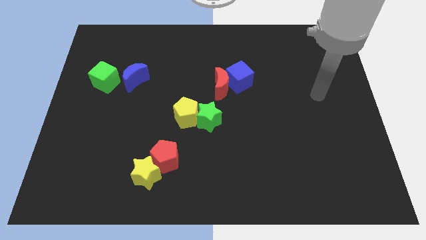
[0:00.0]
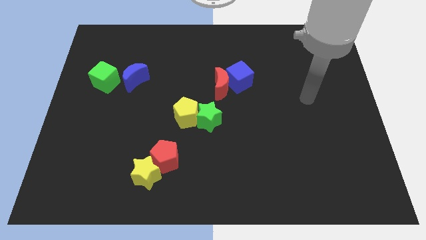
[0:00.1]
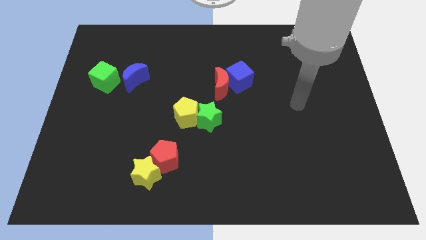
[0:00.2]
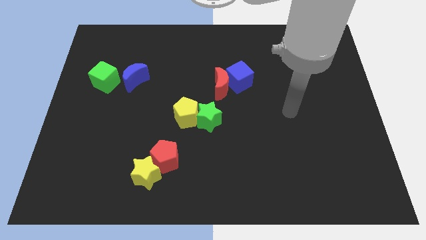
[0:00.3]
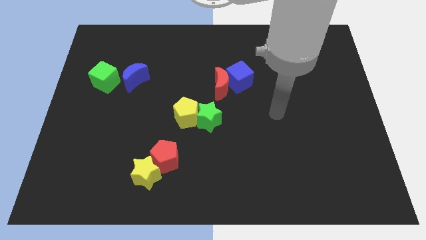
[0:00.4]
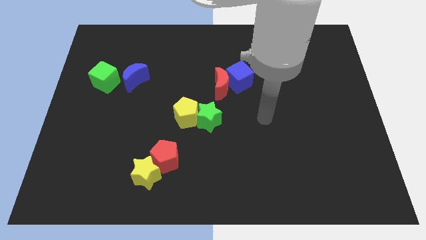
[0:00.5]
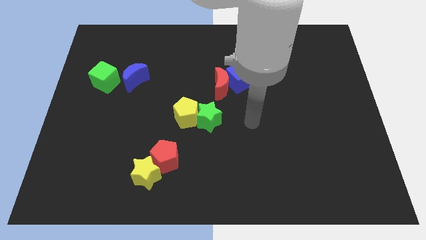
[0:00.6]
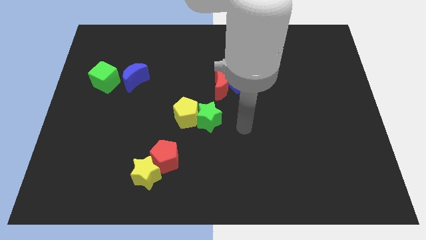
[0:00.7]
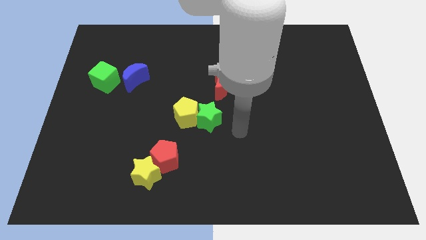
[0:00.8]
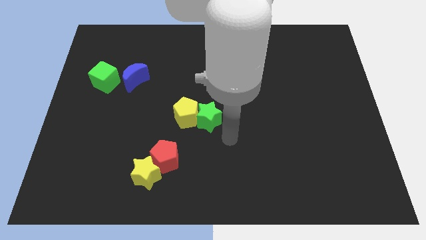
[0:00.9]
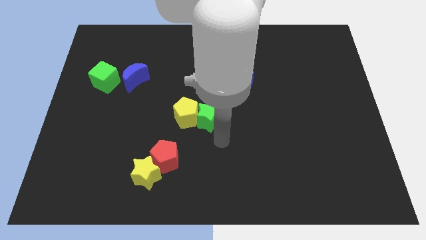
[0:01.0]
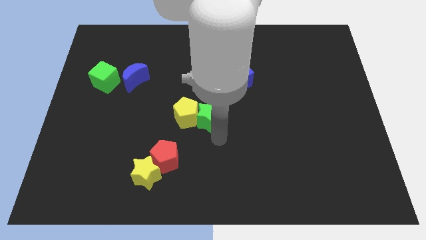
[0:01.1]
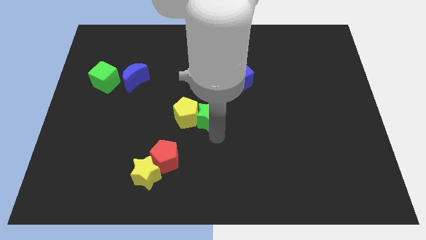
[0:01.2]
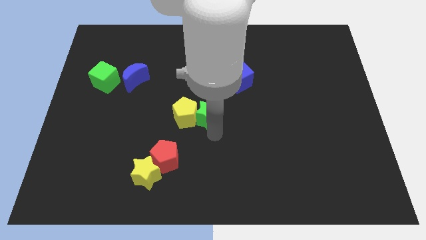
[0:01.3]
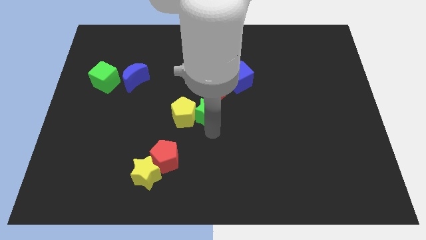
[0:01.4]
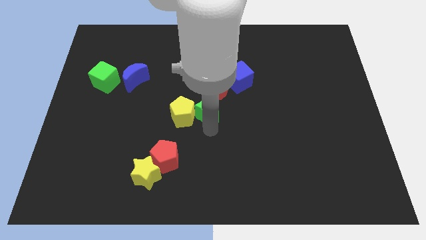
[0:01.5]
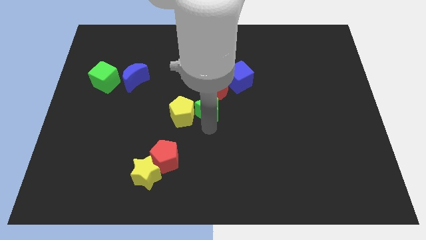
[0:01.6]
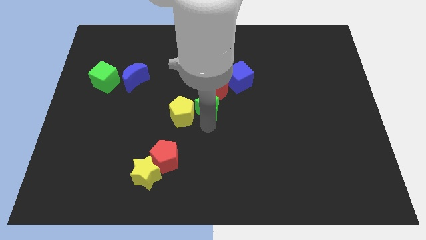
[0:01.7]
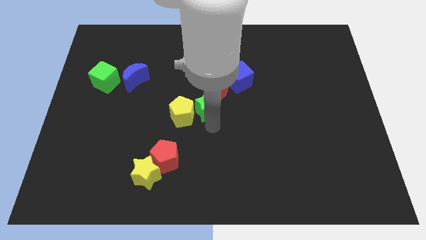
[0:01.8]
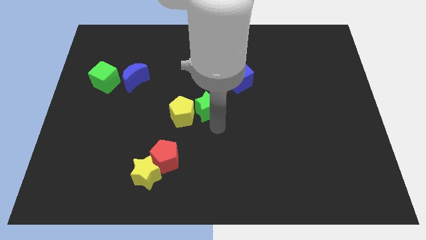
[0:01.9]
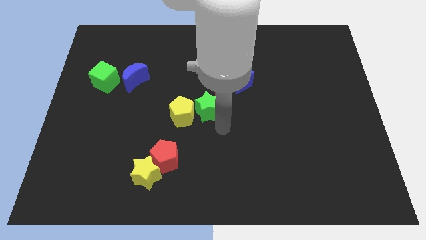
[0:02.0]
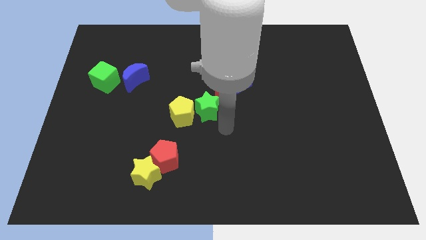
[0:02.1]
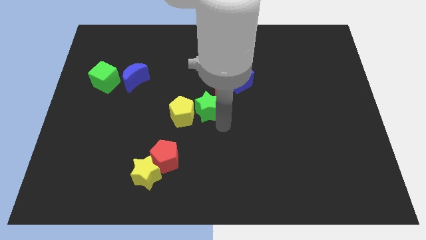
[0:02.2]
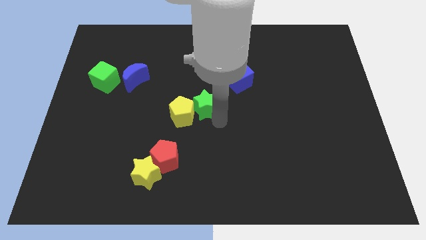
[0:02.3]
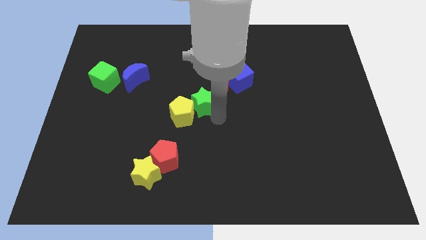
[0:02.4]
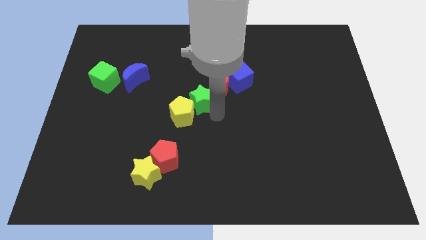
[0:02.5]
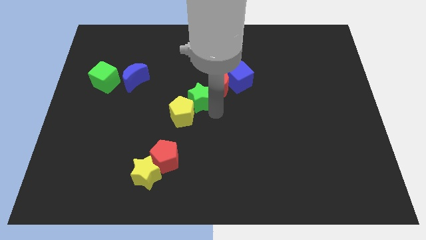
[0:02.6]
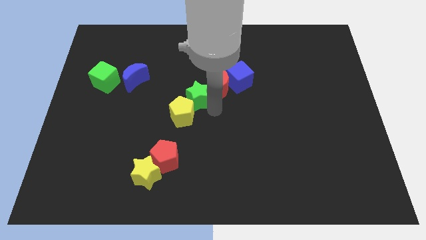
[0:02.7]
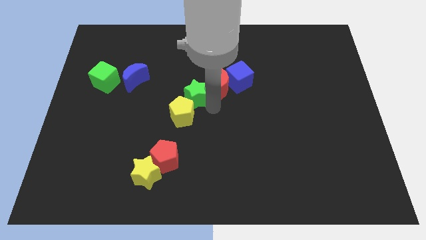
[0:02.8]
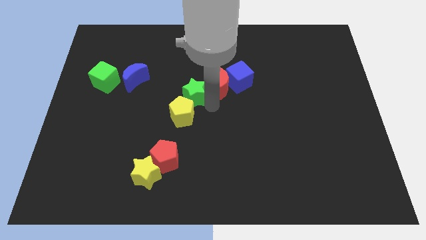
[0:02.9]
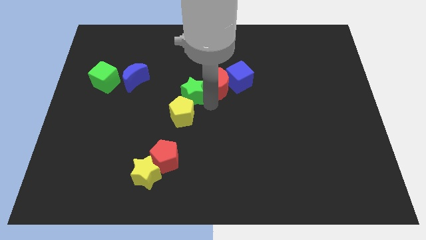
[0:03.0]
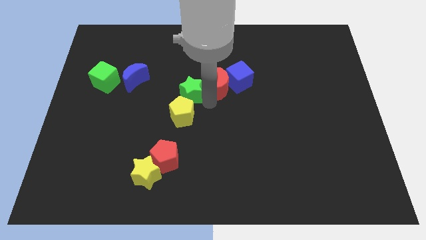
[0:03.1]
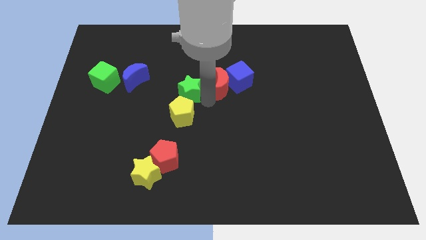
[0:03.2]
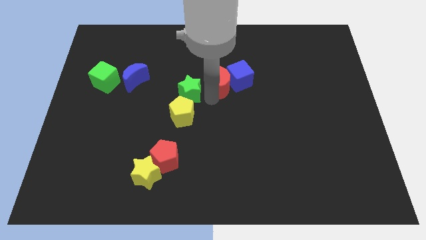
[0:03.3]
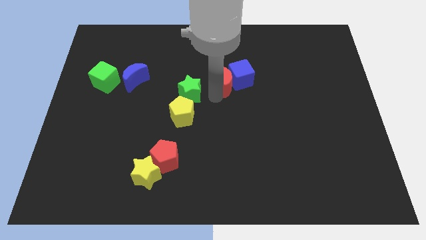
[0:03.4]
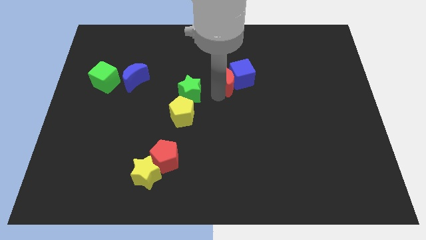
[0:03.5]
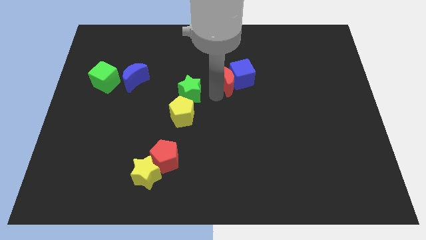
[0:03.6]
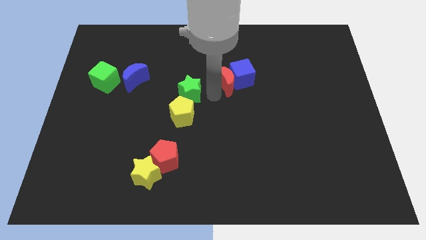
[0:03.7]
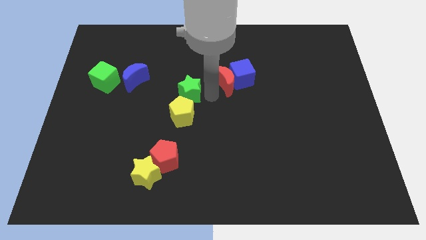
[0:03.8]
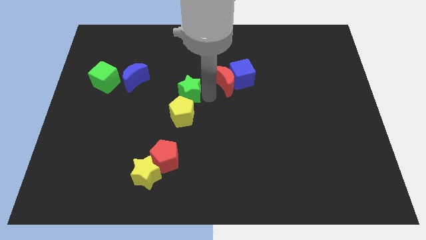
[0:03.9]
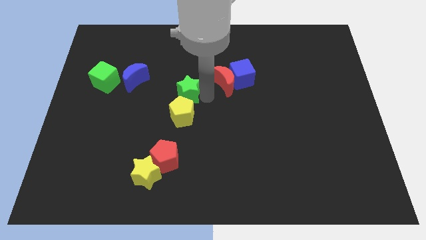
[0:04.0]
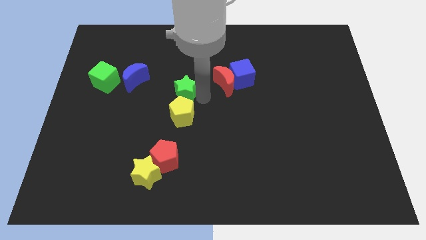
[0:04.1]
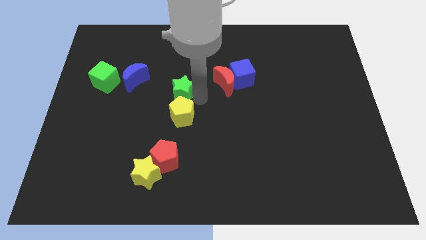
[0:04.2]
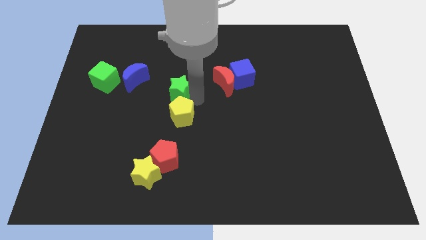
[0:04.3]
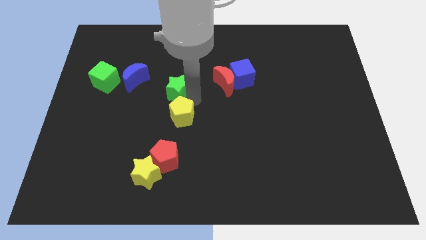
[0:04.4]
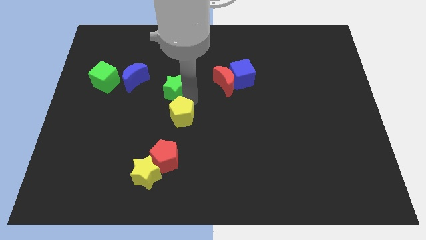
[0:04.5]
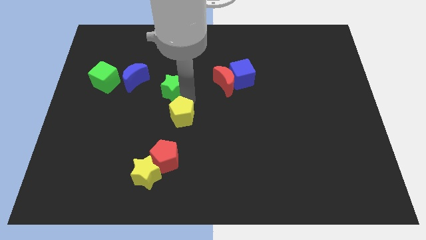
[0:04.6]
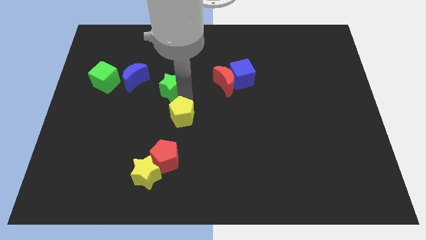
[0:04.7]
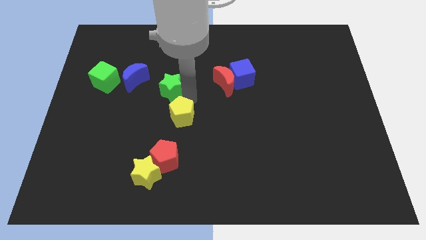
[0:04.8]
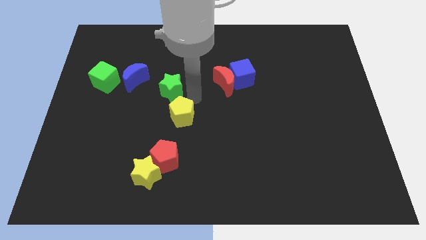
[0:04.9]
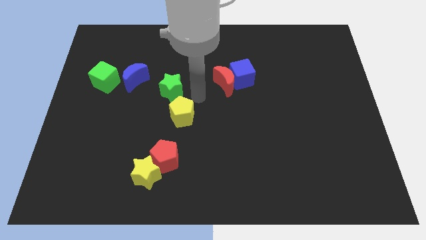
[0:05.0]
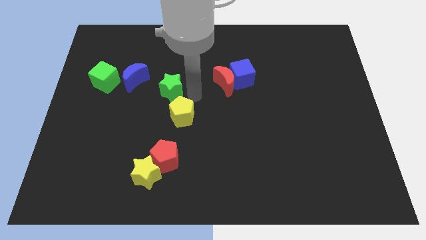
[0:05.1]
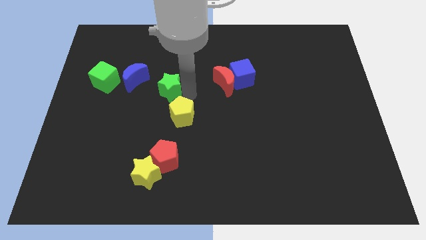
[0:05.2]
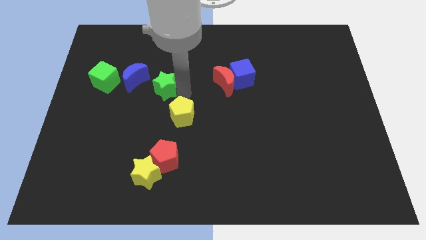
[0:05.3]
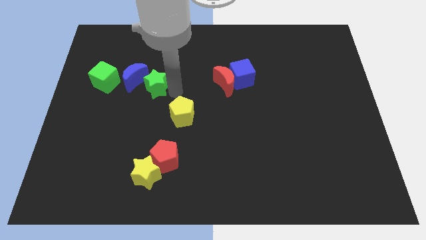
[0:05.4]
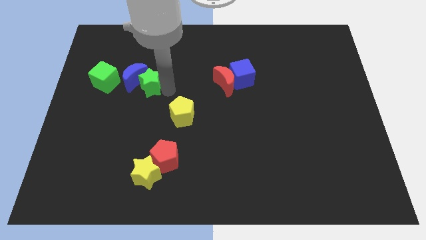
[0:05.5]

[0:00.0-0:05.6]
slide the green star towards the blue moon

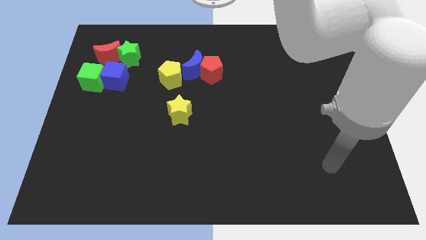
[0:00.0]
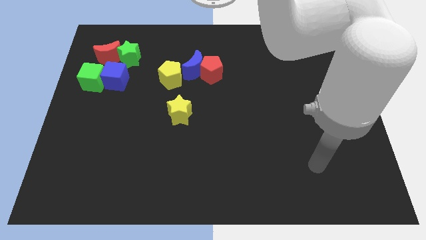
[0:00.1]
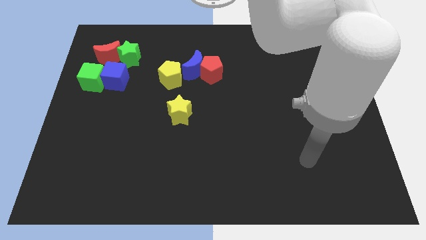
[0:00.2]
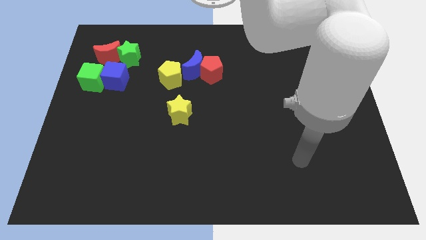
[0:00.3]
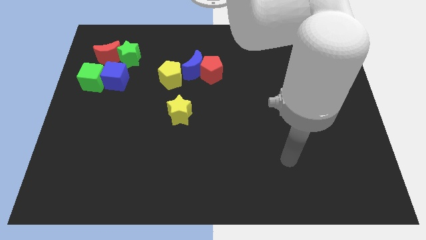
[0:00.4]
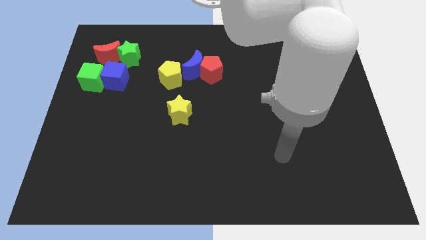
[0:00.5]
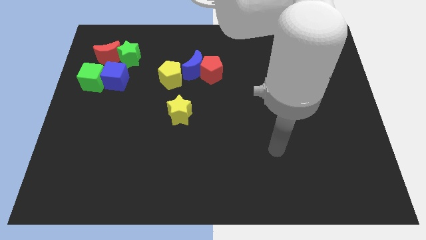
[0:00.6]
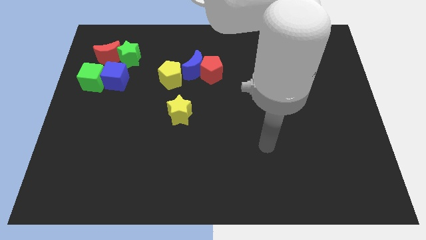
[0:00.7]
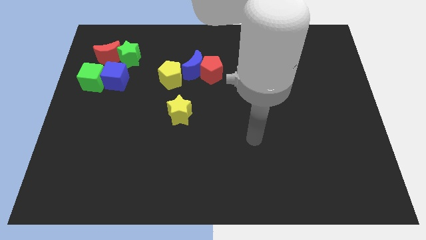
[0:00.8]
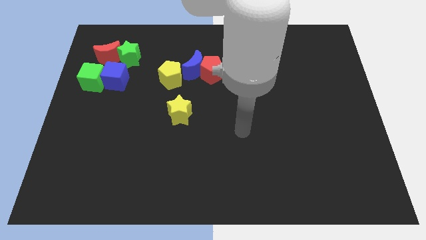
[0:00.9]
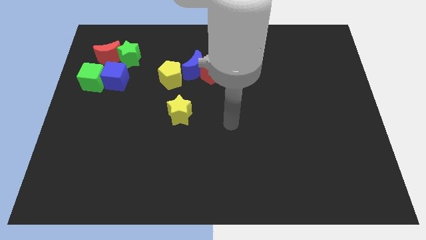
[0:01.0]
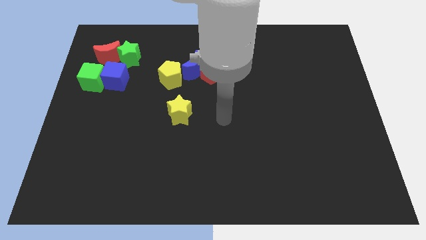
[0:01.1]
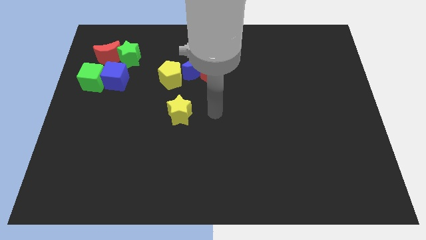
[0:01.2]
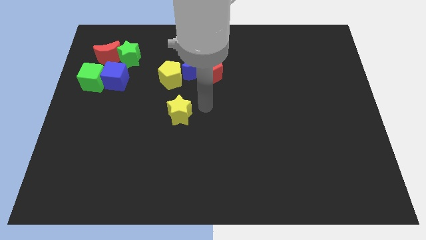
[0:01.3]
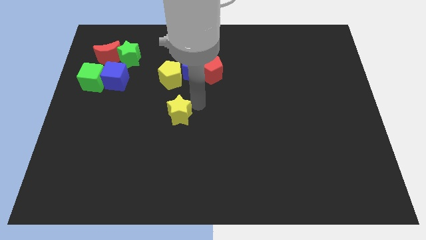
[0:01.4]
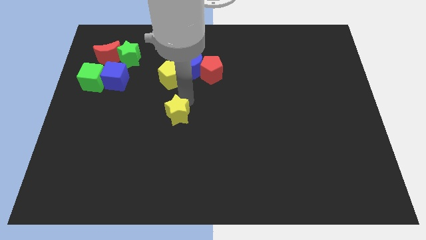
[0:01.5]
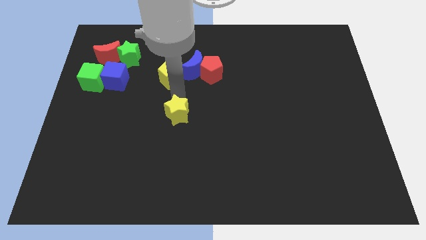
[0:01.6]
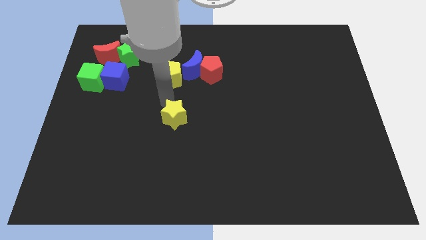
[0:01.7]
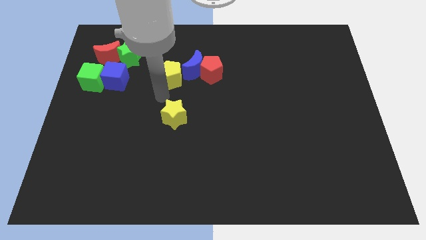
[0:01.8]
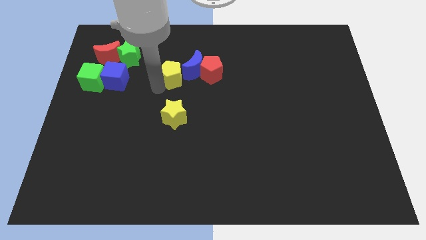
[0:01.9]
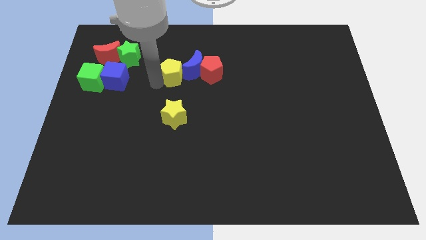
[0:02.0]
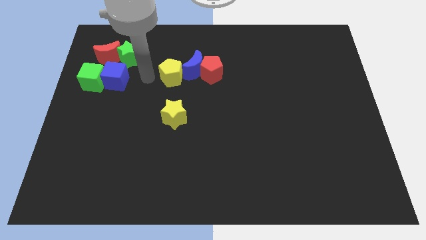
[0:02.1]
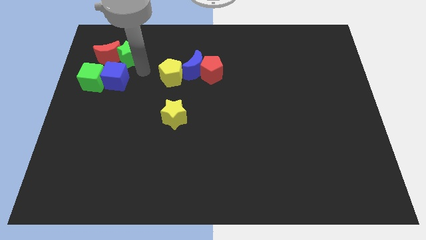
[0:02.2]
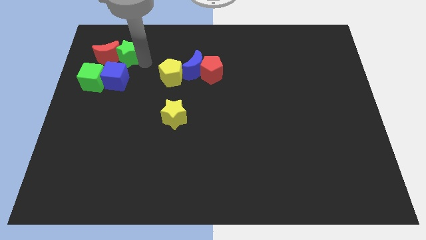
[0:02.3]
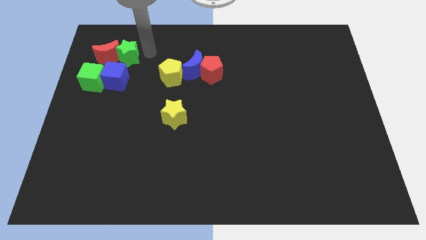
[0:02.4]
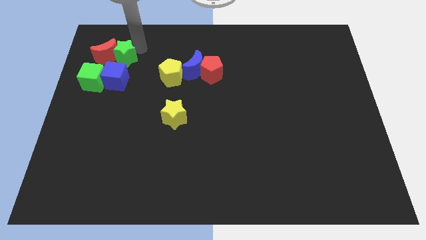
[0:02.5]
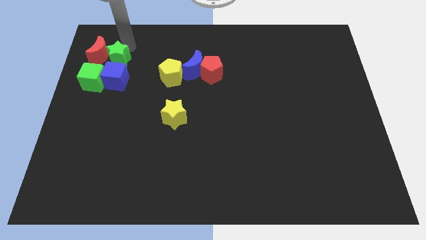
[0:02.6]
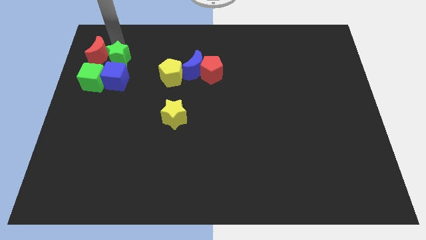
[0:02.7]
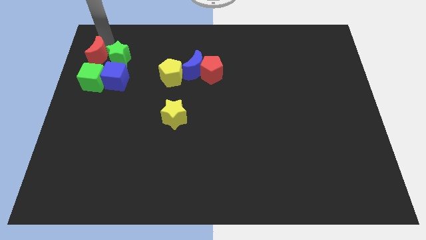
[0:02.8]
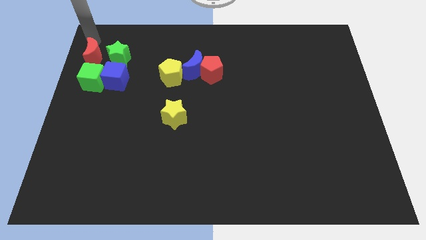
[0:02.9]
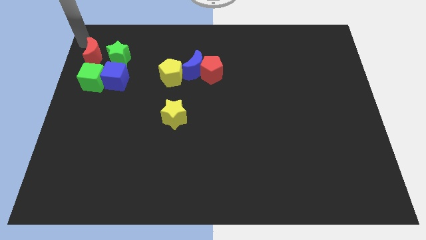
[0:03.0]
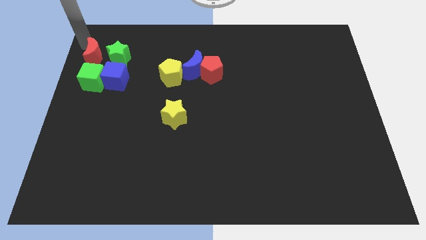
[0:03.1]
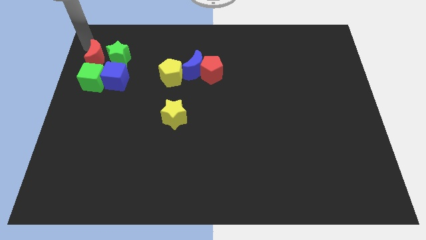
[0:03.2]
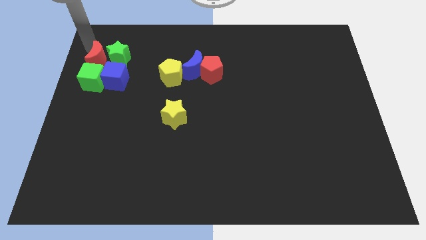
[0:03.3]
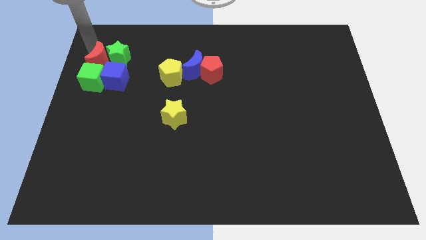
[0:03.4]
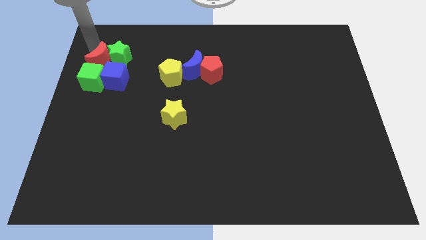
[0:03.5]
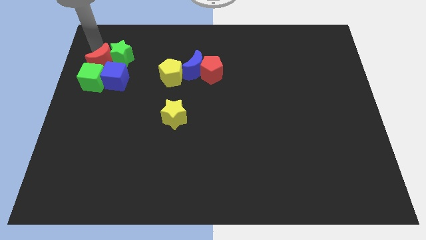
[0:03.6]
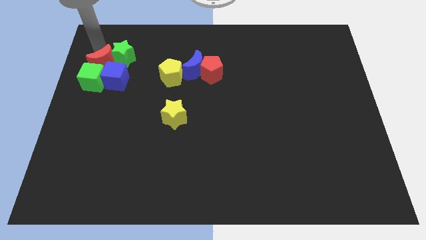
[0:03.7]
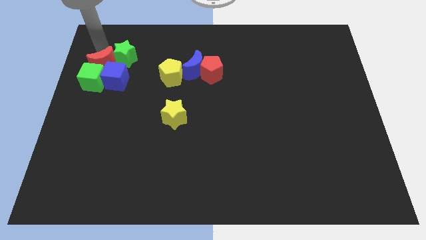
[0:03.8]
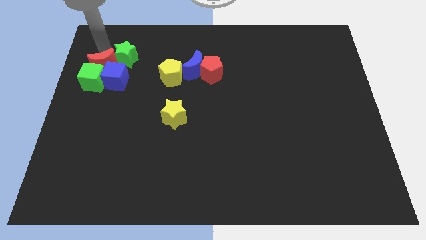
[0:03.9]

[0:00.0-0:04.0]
slide the red moon close to the blue cube
